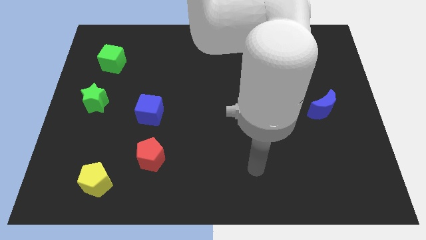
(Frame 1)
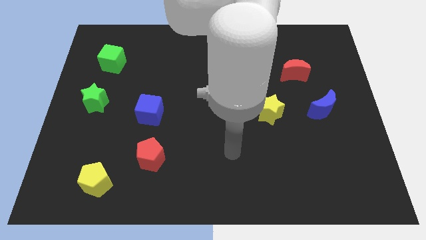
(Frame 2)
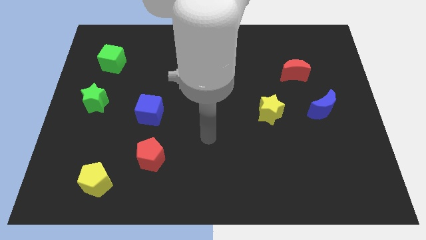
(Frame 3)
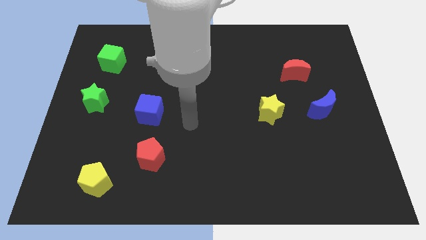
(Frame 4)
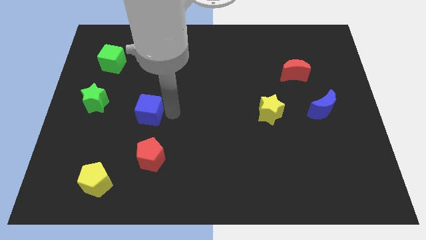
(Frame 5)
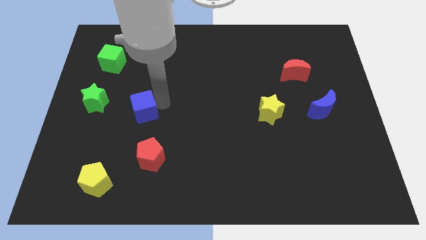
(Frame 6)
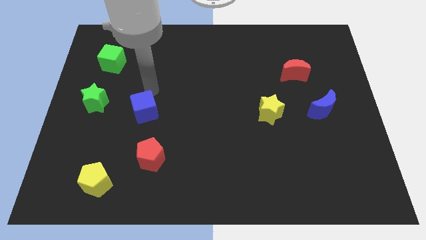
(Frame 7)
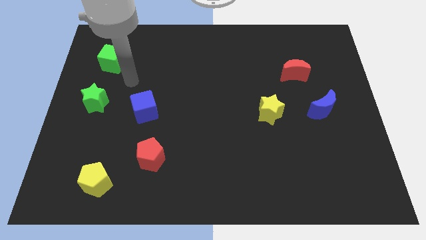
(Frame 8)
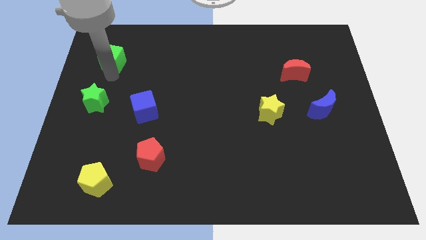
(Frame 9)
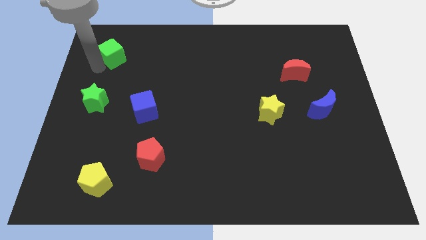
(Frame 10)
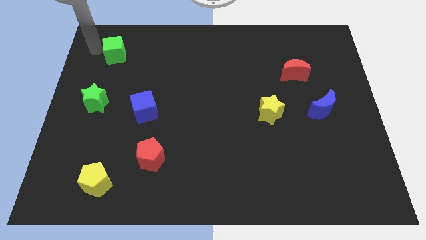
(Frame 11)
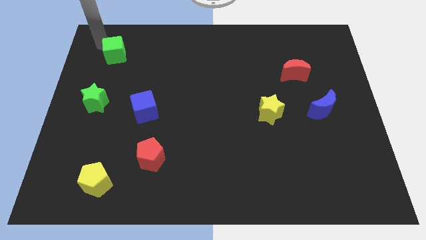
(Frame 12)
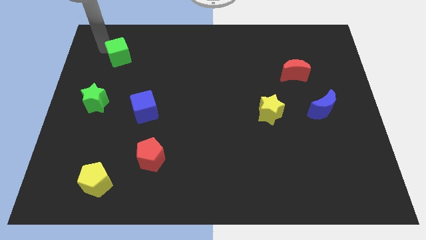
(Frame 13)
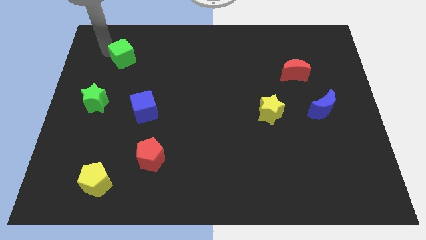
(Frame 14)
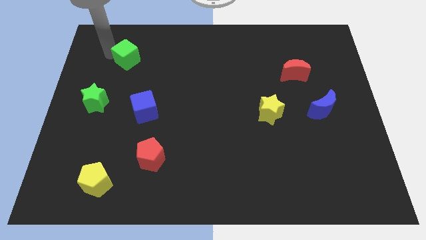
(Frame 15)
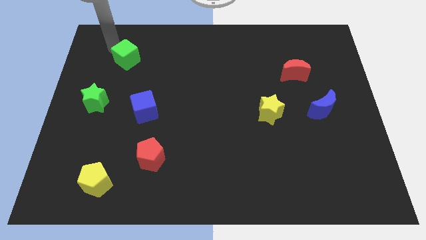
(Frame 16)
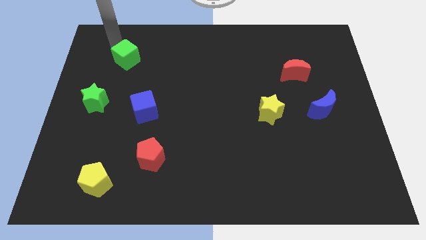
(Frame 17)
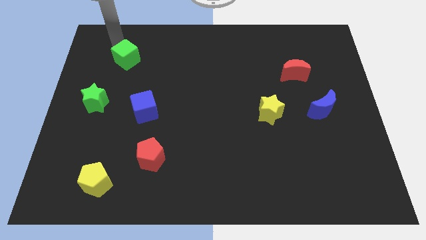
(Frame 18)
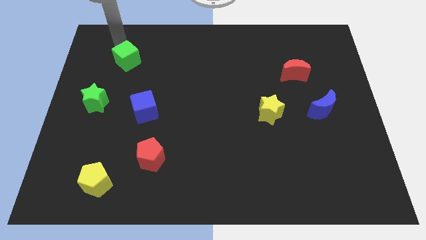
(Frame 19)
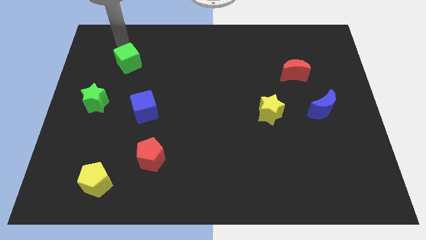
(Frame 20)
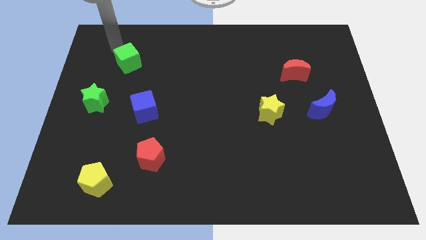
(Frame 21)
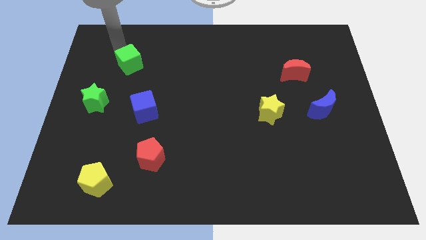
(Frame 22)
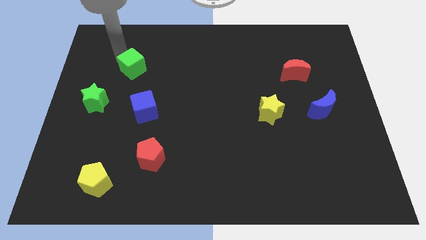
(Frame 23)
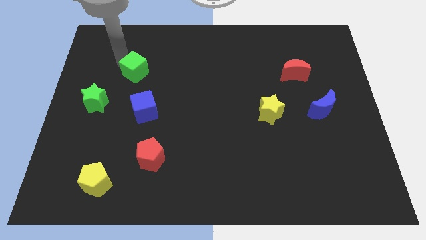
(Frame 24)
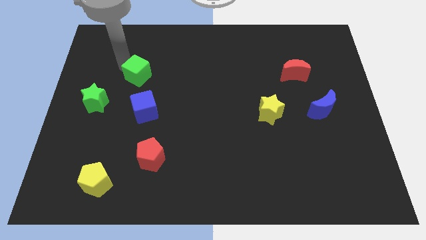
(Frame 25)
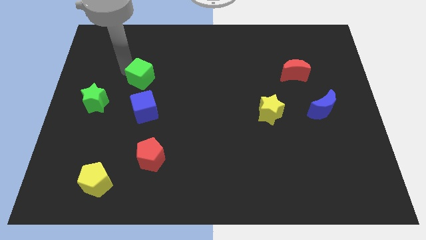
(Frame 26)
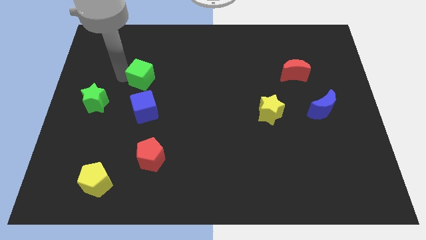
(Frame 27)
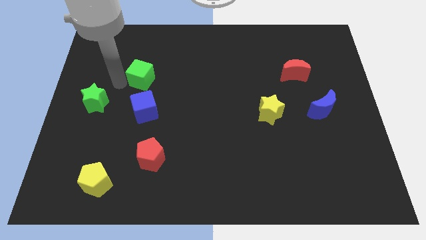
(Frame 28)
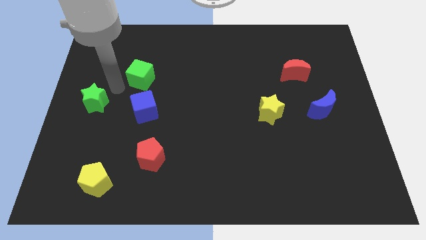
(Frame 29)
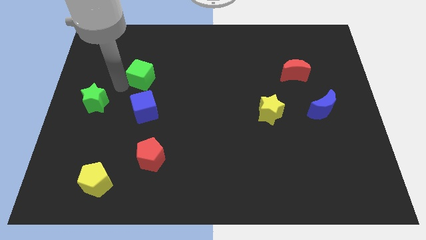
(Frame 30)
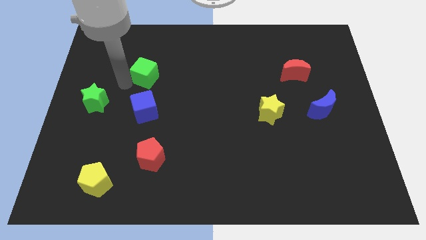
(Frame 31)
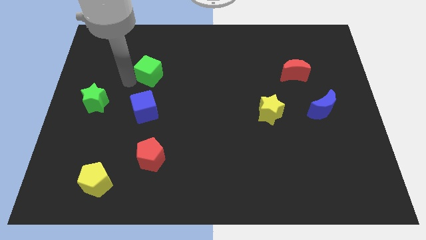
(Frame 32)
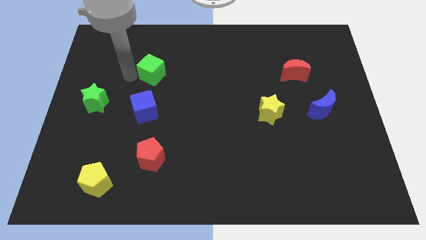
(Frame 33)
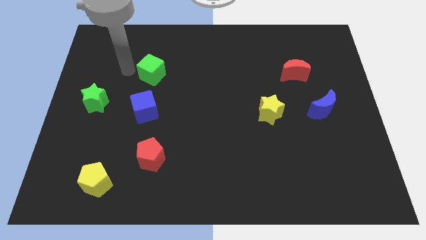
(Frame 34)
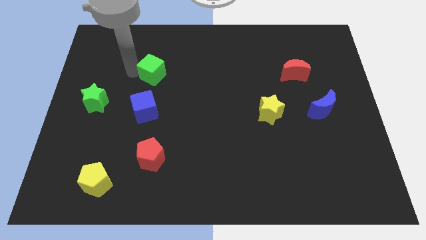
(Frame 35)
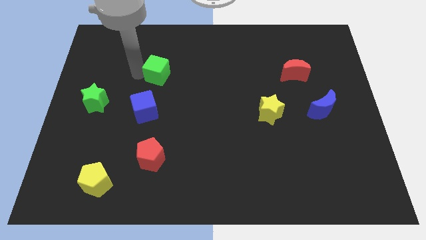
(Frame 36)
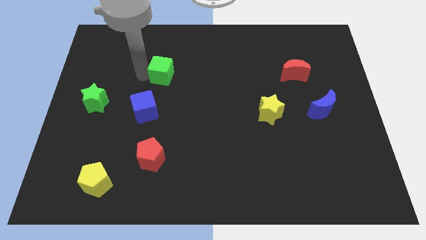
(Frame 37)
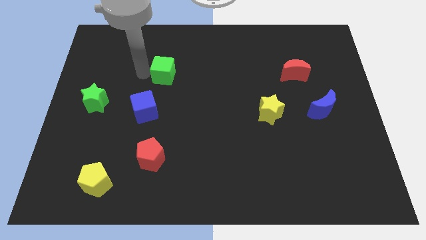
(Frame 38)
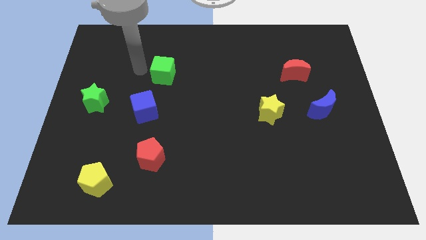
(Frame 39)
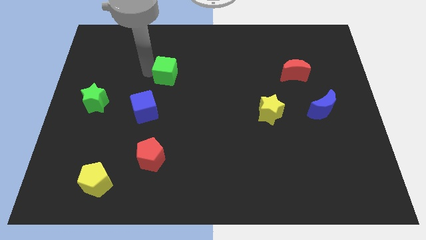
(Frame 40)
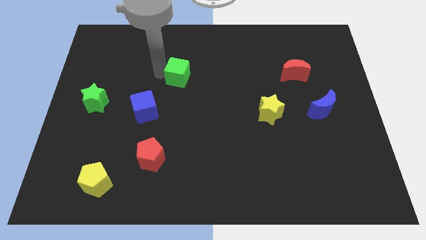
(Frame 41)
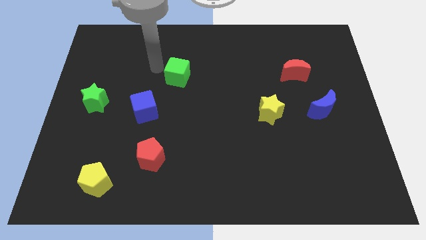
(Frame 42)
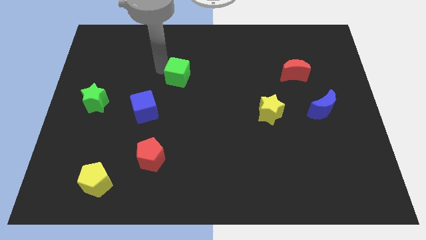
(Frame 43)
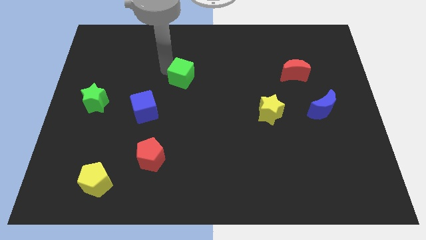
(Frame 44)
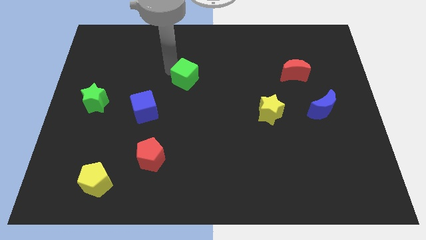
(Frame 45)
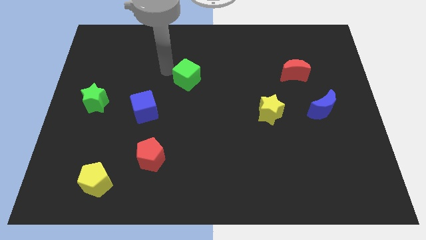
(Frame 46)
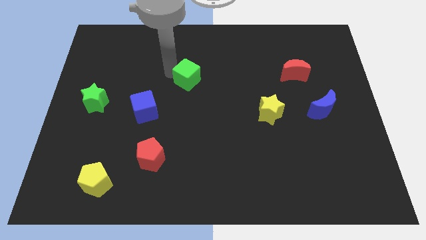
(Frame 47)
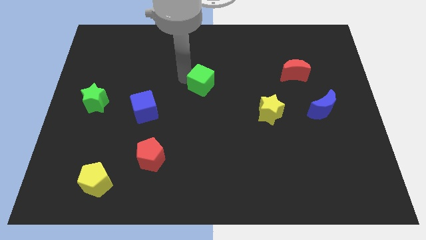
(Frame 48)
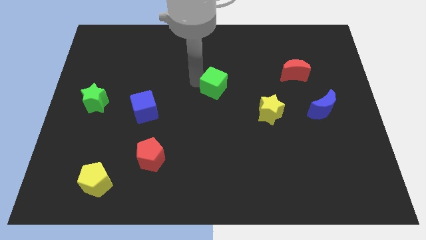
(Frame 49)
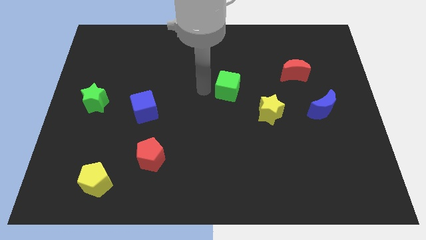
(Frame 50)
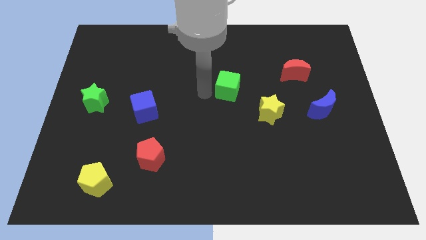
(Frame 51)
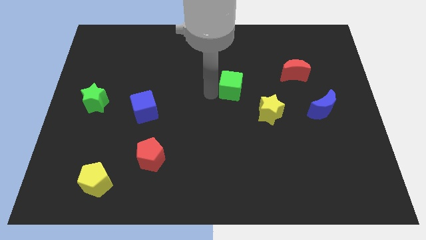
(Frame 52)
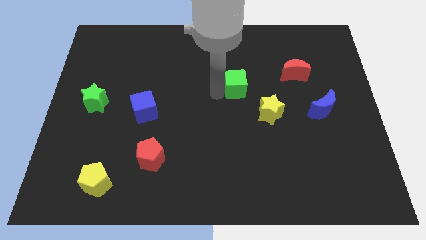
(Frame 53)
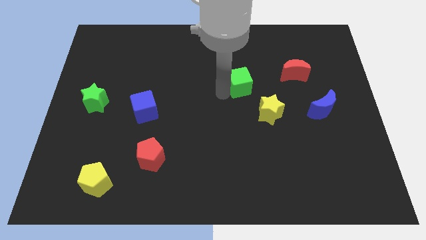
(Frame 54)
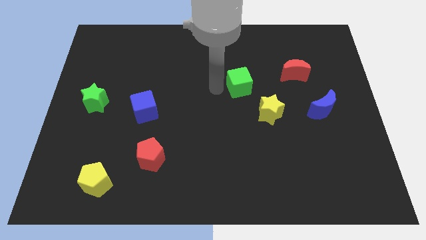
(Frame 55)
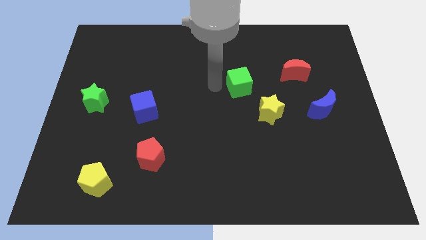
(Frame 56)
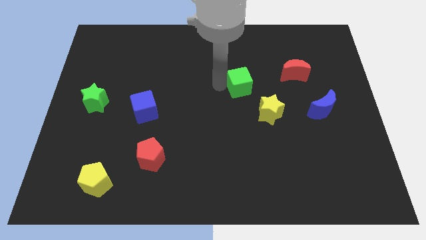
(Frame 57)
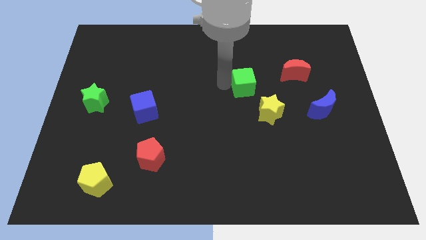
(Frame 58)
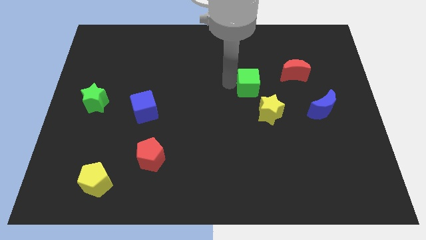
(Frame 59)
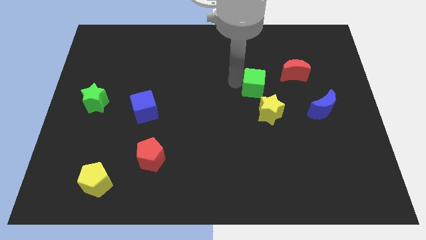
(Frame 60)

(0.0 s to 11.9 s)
push the green cube to the bottom left side of the red moon

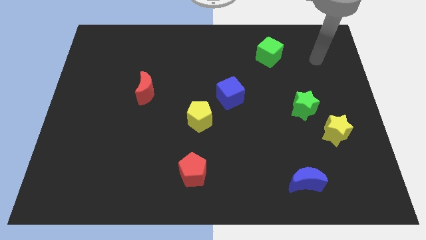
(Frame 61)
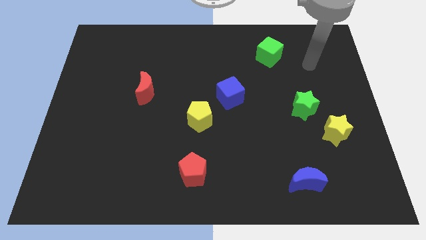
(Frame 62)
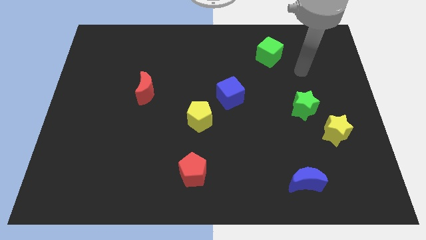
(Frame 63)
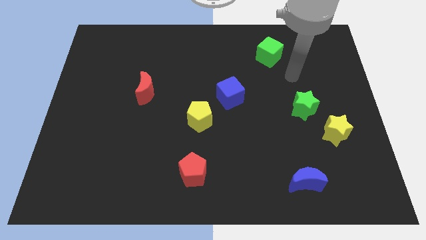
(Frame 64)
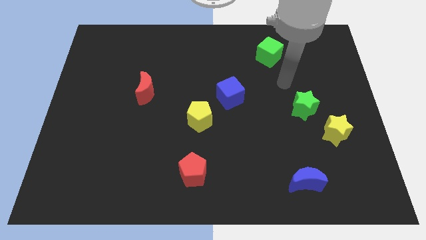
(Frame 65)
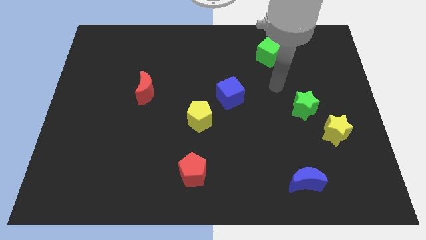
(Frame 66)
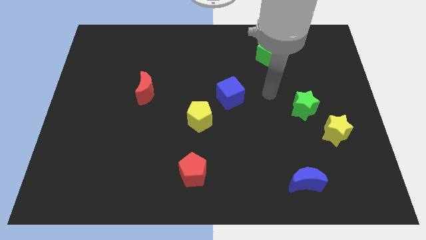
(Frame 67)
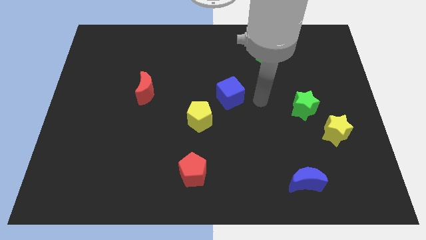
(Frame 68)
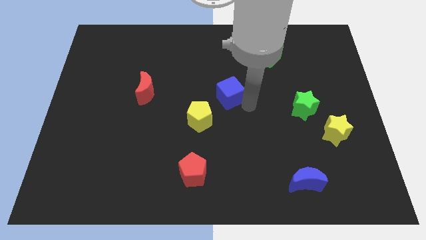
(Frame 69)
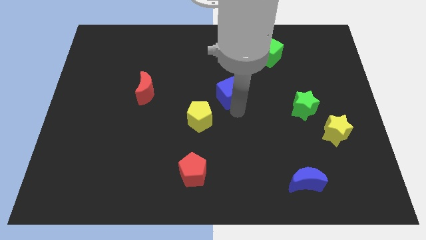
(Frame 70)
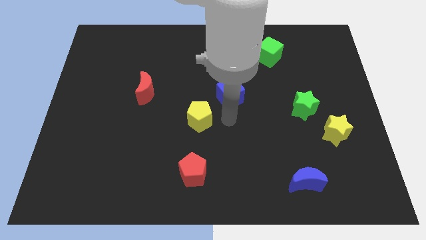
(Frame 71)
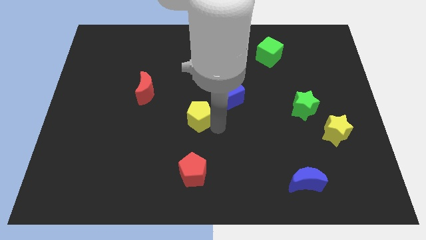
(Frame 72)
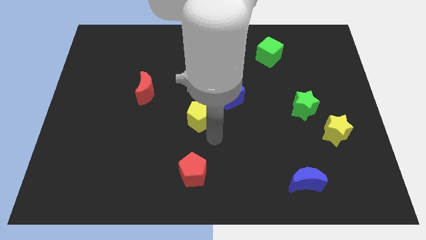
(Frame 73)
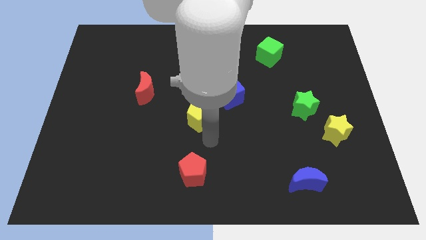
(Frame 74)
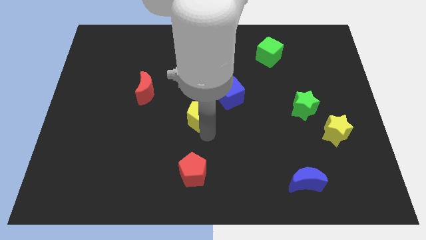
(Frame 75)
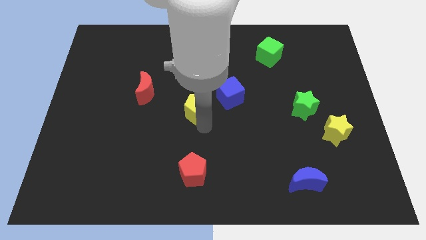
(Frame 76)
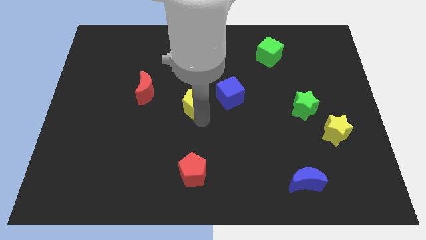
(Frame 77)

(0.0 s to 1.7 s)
slide the yellow pentagon to the right of the red moon
